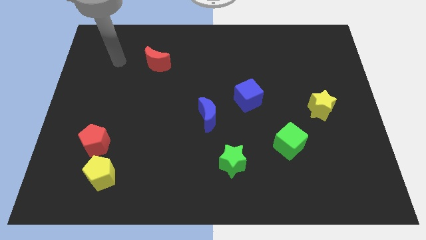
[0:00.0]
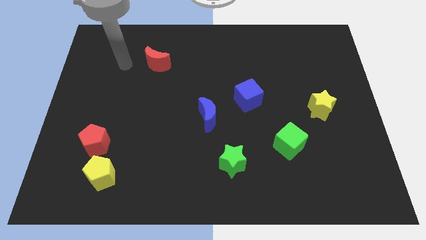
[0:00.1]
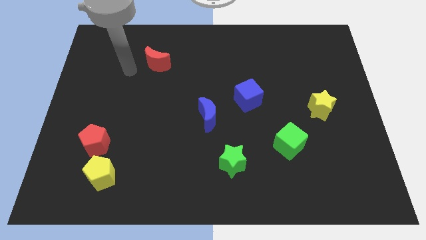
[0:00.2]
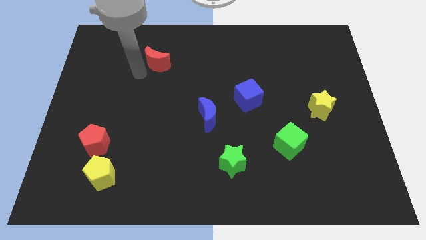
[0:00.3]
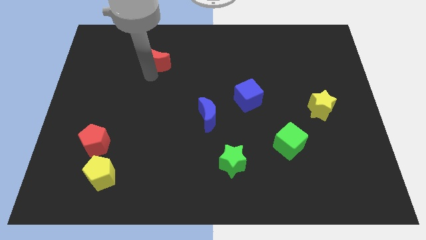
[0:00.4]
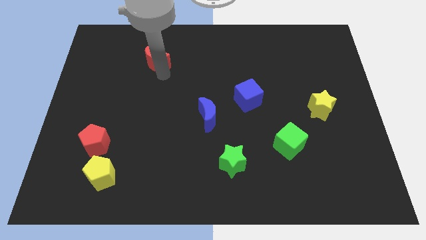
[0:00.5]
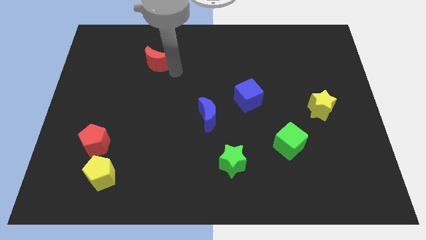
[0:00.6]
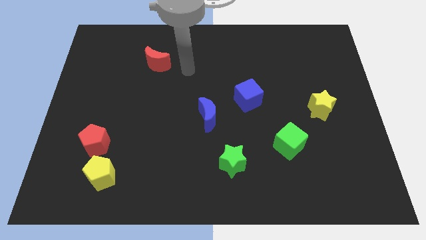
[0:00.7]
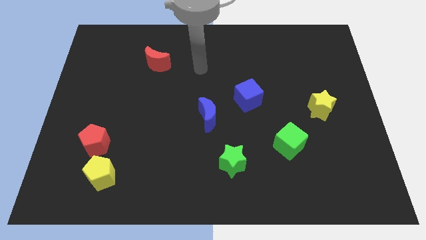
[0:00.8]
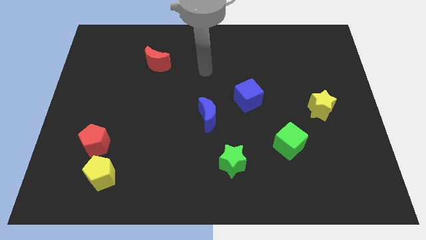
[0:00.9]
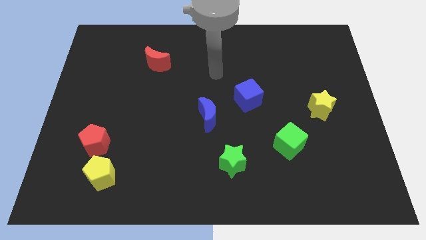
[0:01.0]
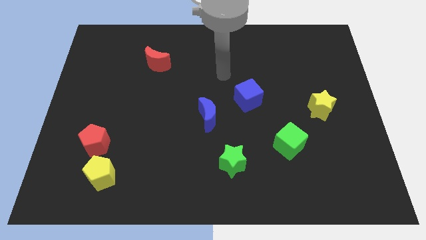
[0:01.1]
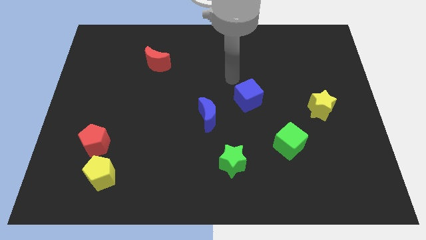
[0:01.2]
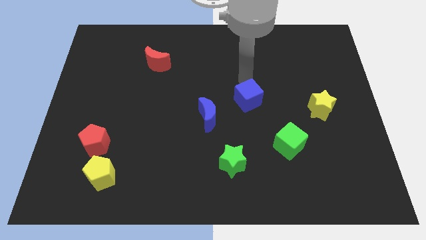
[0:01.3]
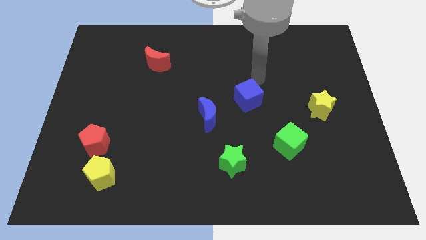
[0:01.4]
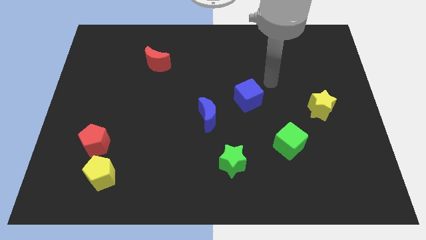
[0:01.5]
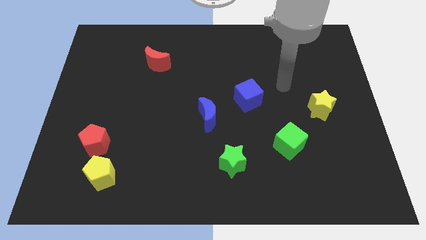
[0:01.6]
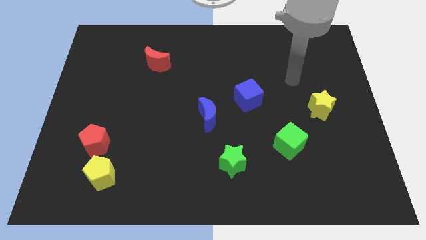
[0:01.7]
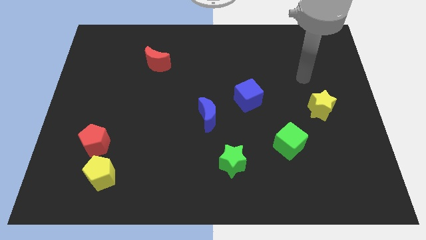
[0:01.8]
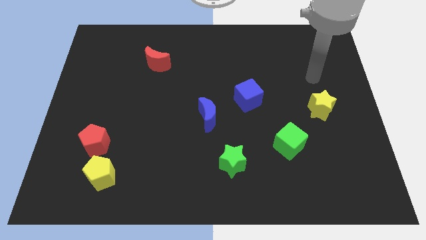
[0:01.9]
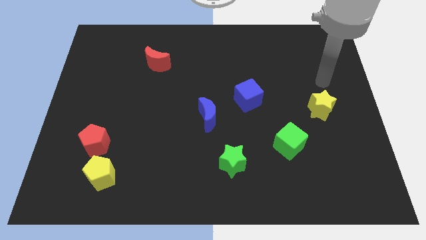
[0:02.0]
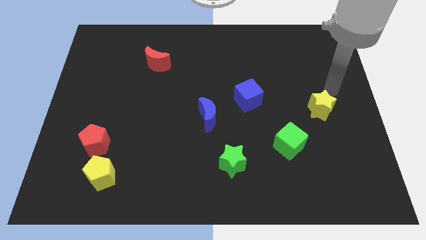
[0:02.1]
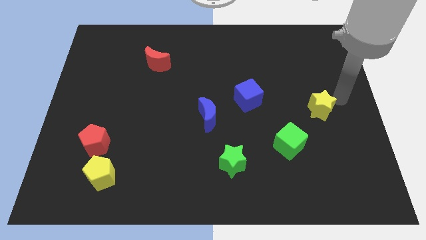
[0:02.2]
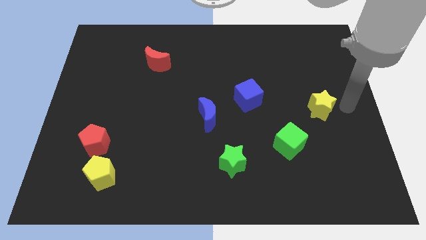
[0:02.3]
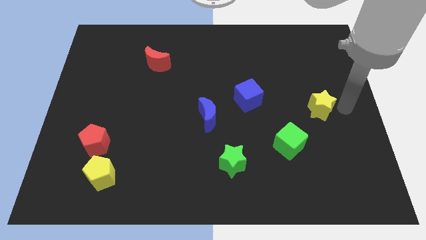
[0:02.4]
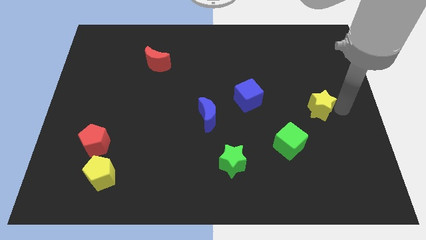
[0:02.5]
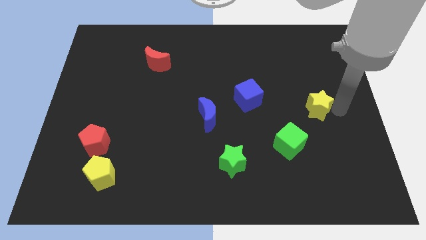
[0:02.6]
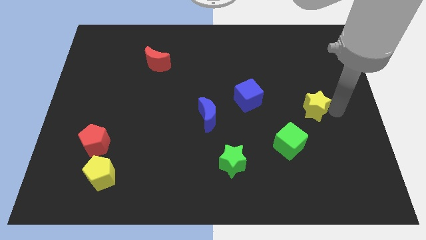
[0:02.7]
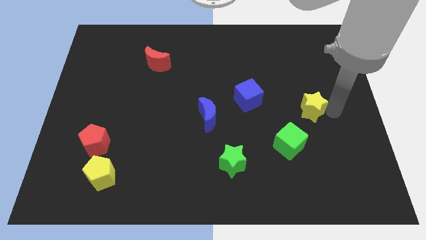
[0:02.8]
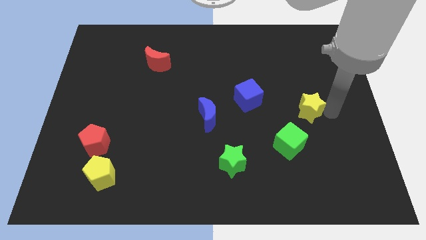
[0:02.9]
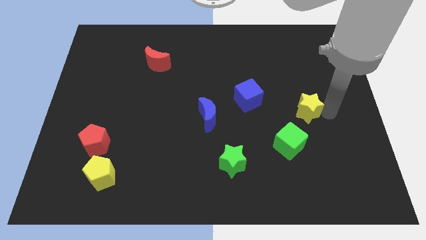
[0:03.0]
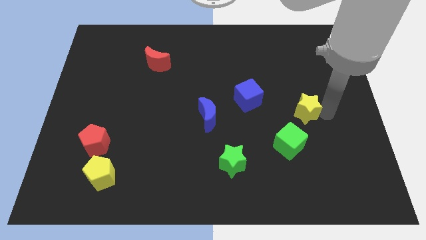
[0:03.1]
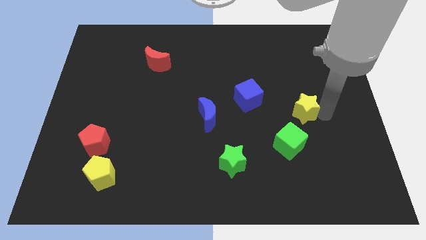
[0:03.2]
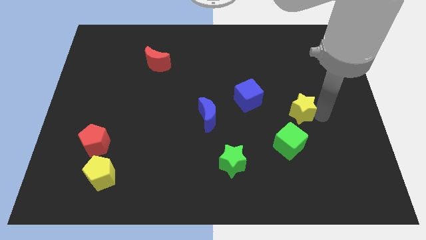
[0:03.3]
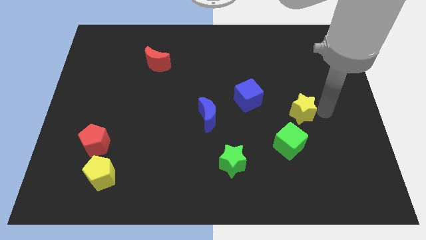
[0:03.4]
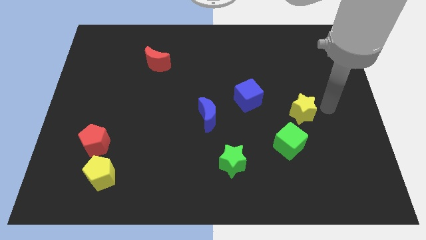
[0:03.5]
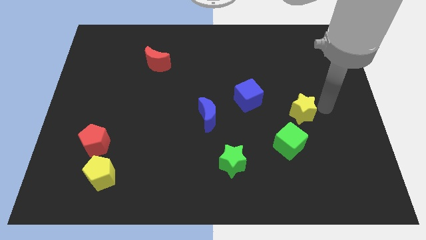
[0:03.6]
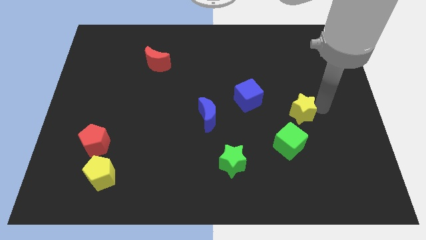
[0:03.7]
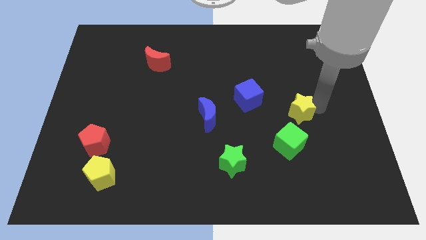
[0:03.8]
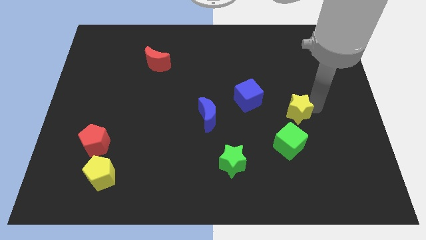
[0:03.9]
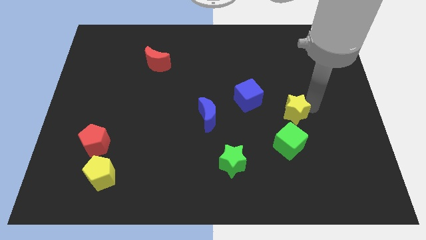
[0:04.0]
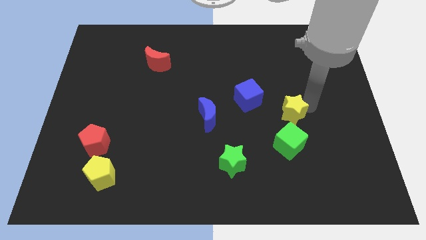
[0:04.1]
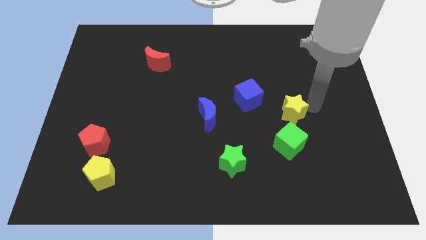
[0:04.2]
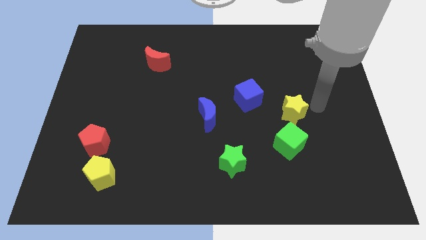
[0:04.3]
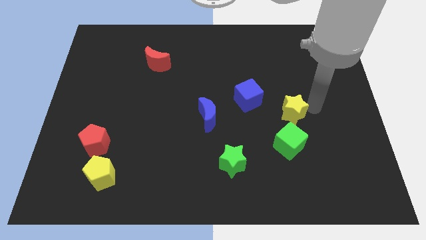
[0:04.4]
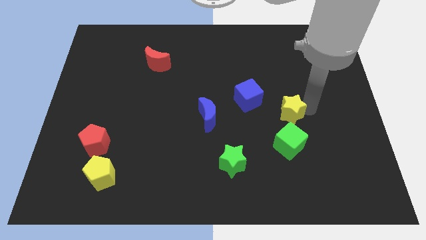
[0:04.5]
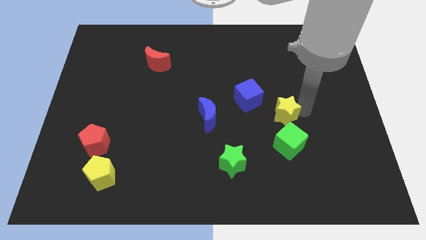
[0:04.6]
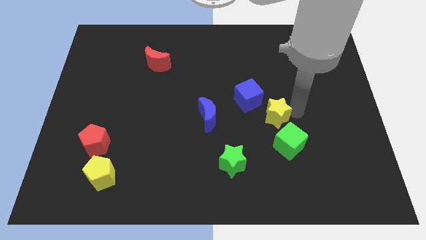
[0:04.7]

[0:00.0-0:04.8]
put the yellow star to the top left of the green cube

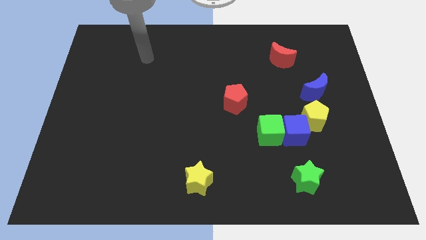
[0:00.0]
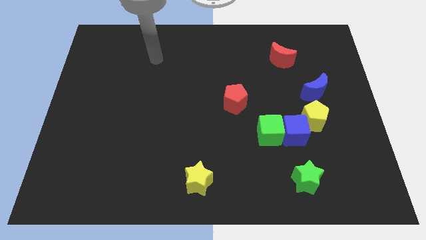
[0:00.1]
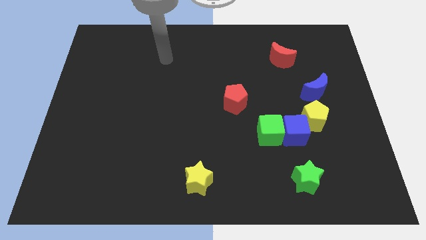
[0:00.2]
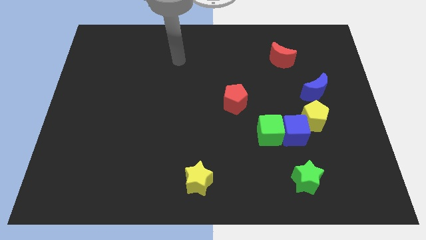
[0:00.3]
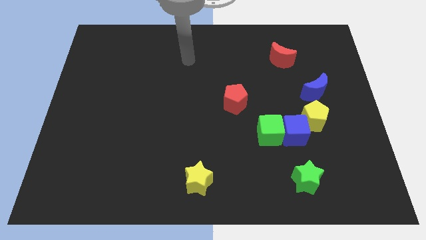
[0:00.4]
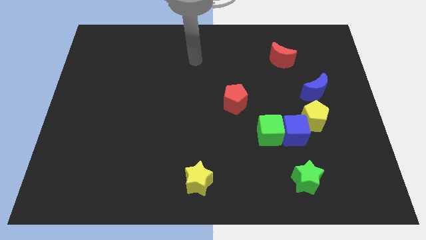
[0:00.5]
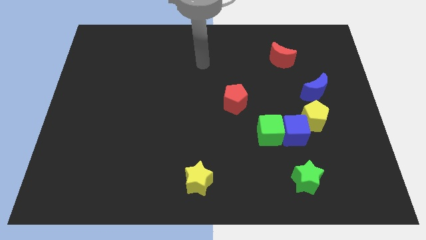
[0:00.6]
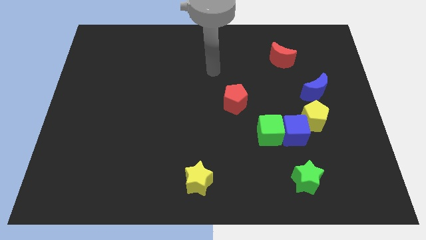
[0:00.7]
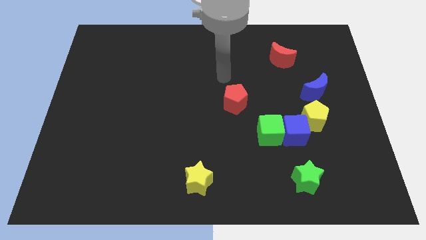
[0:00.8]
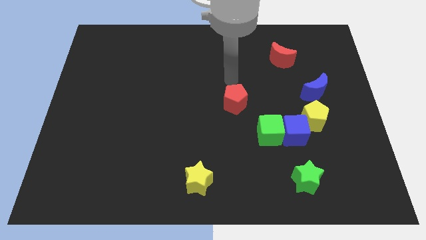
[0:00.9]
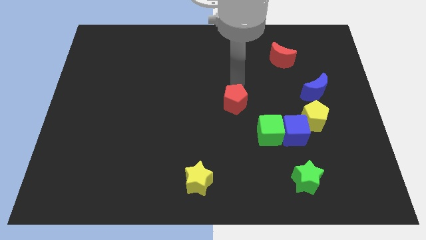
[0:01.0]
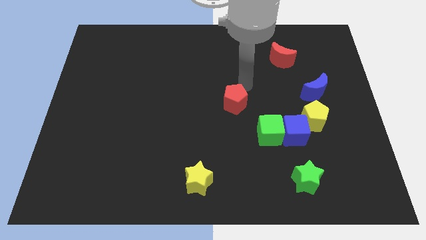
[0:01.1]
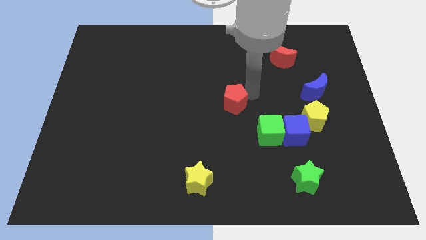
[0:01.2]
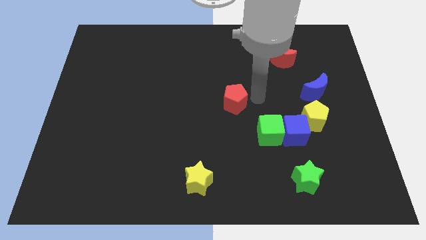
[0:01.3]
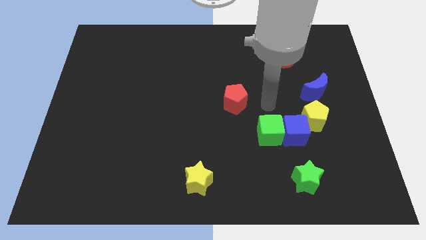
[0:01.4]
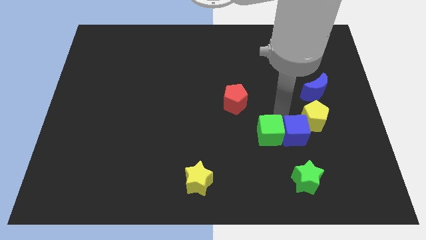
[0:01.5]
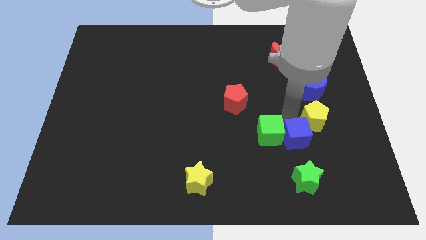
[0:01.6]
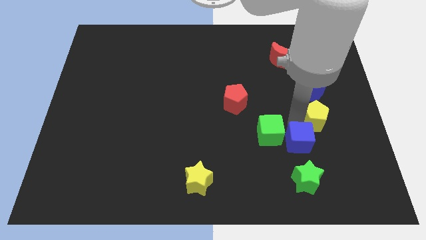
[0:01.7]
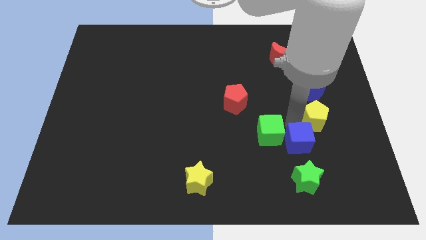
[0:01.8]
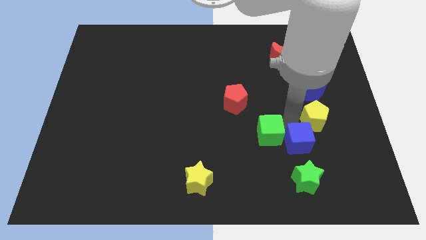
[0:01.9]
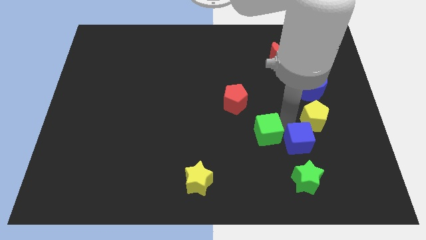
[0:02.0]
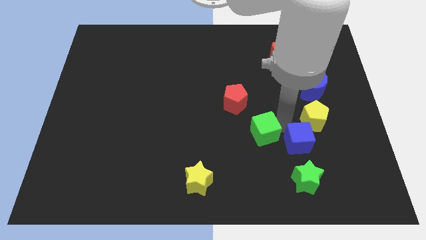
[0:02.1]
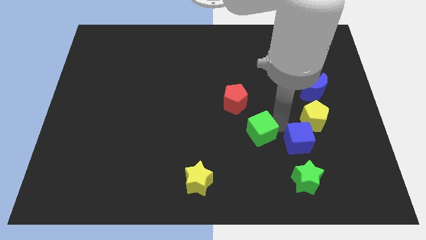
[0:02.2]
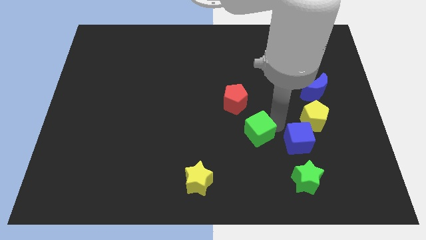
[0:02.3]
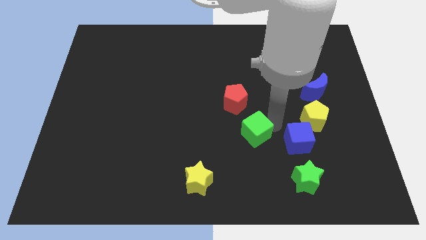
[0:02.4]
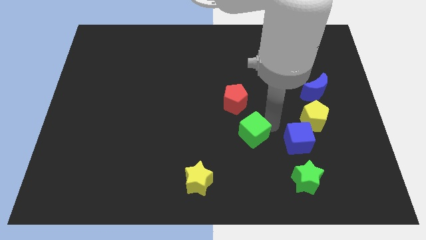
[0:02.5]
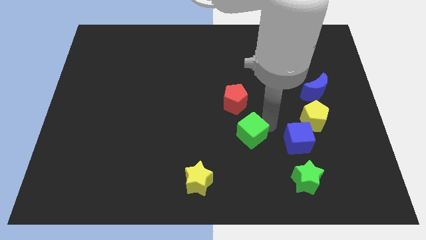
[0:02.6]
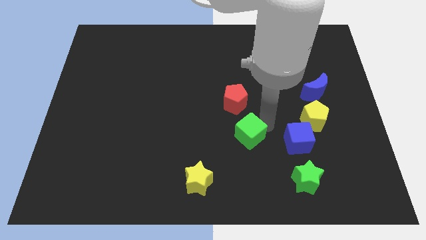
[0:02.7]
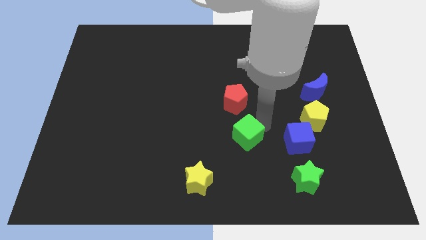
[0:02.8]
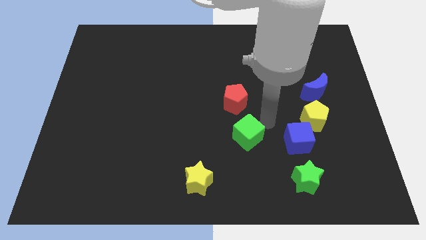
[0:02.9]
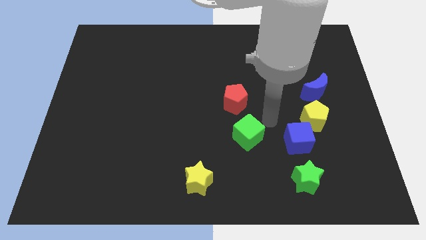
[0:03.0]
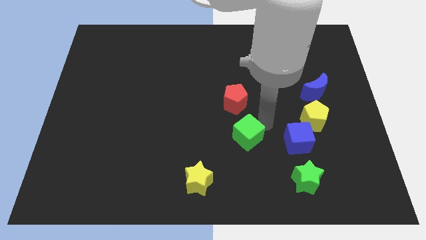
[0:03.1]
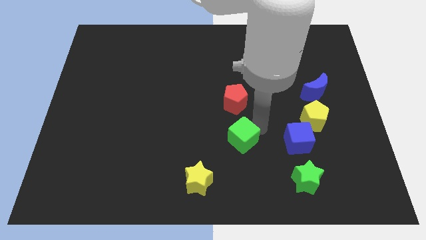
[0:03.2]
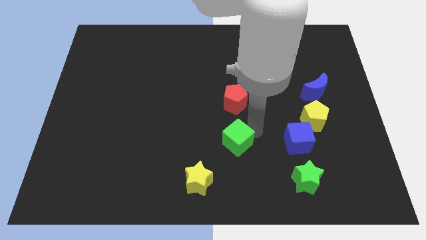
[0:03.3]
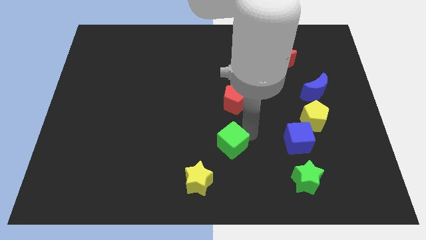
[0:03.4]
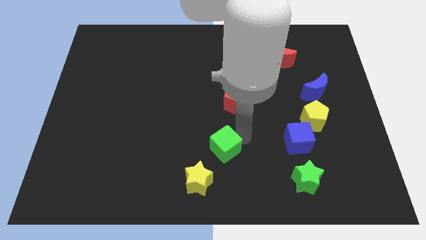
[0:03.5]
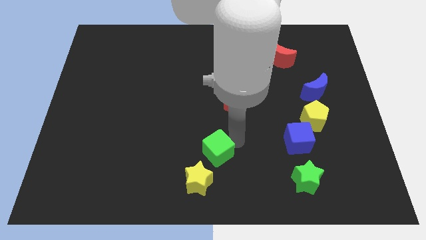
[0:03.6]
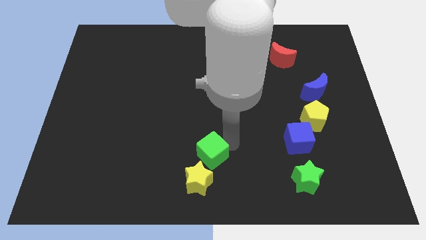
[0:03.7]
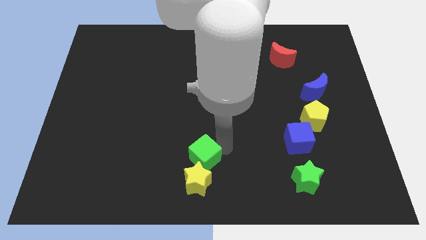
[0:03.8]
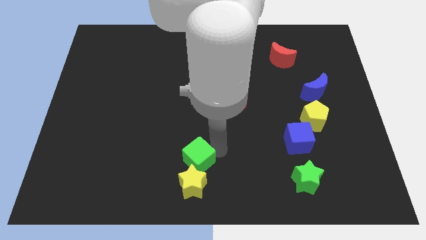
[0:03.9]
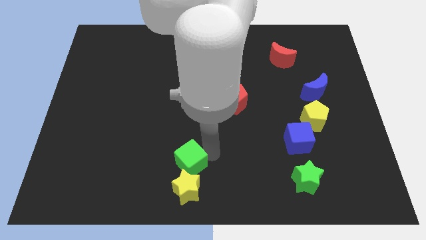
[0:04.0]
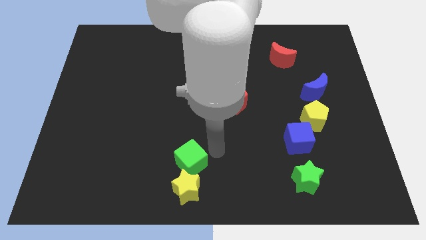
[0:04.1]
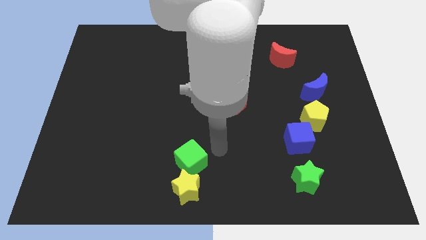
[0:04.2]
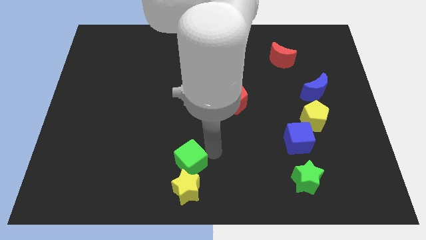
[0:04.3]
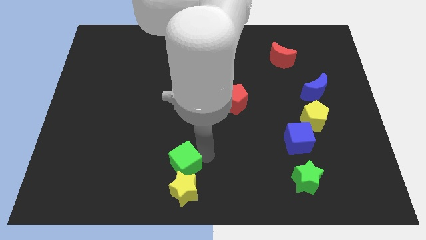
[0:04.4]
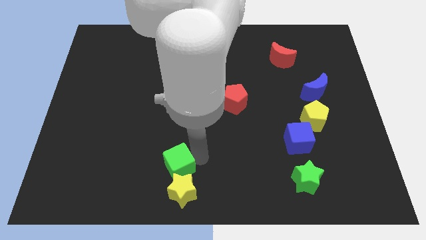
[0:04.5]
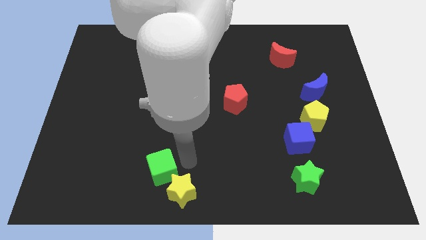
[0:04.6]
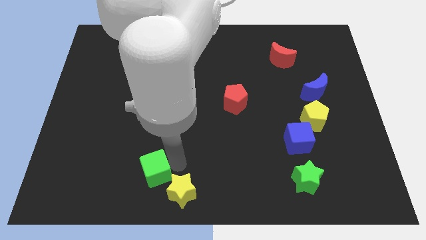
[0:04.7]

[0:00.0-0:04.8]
put the green cube left of the yellow star
